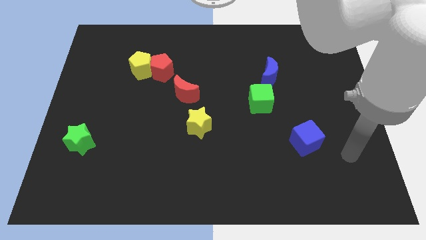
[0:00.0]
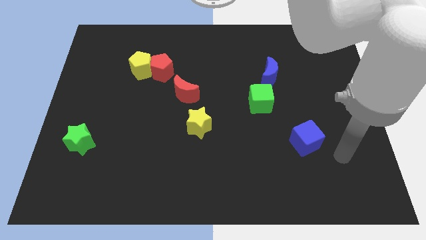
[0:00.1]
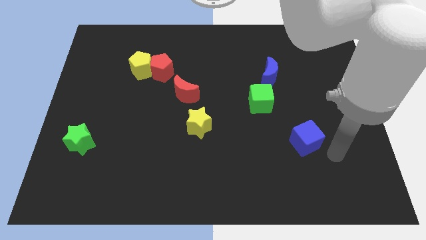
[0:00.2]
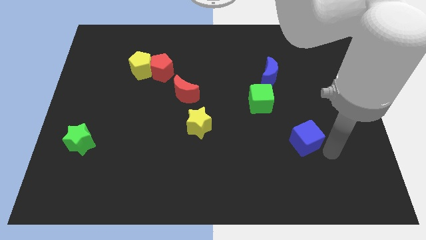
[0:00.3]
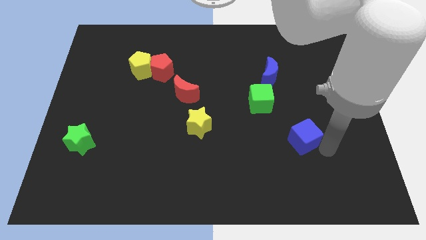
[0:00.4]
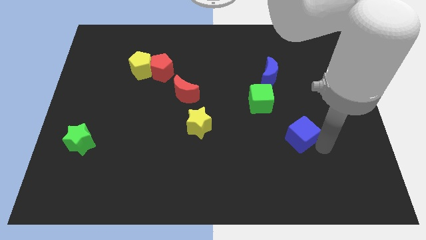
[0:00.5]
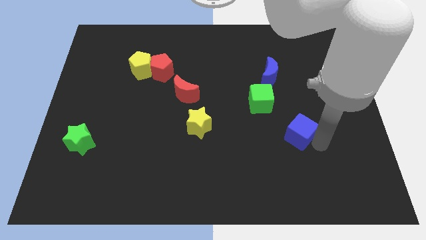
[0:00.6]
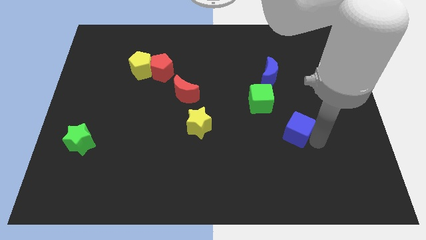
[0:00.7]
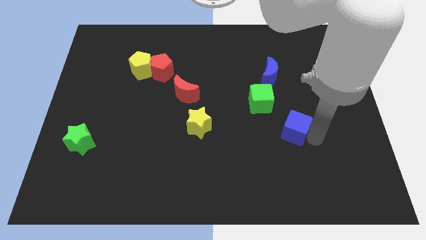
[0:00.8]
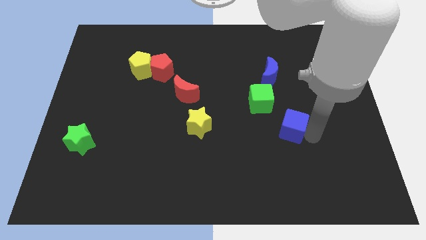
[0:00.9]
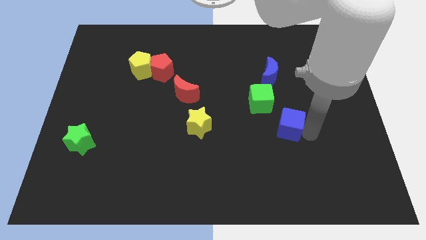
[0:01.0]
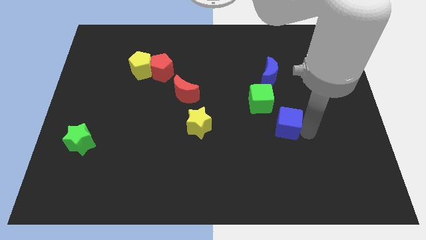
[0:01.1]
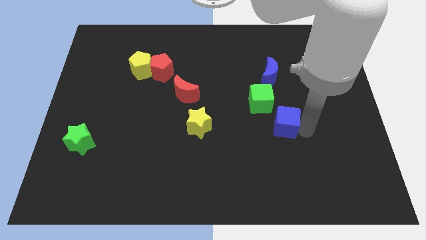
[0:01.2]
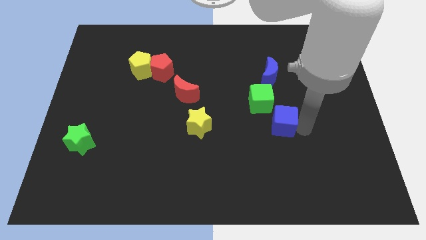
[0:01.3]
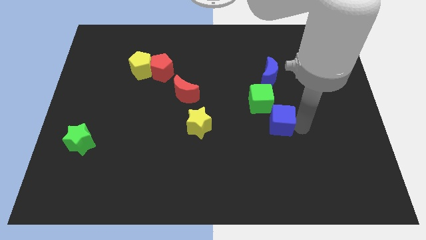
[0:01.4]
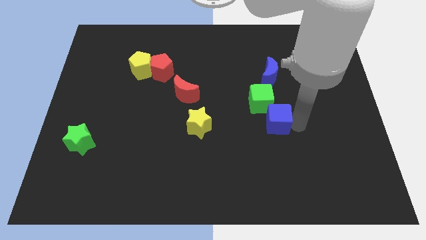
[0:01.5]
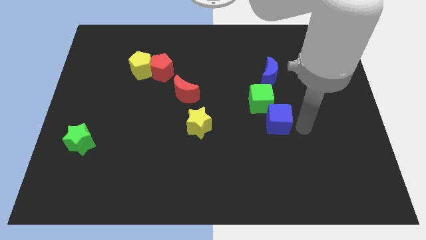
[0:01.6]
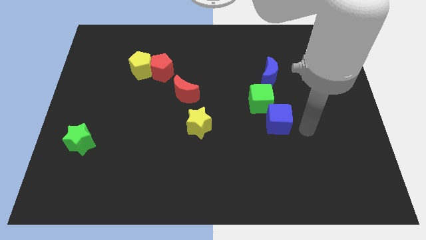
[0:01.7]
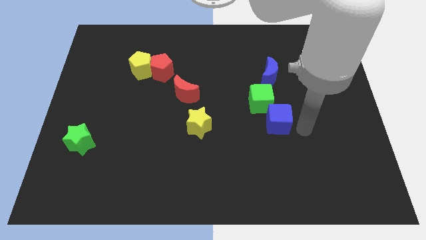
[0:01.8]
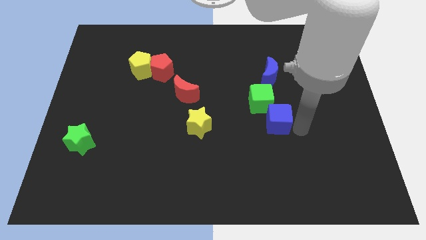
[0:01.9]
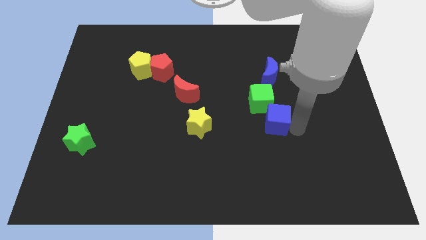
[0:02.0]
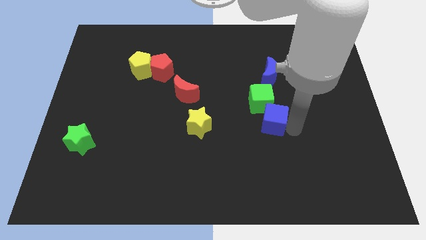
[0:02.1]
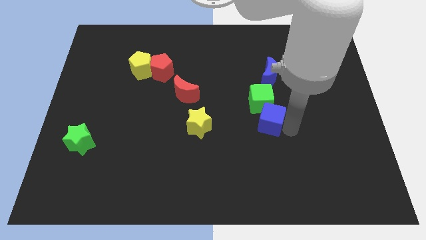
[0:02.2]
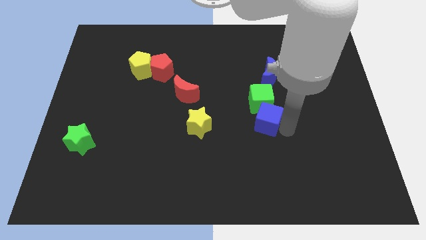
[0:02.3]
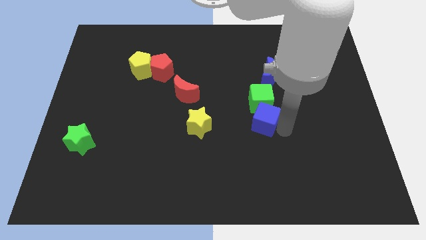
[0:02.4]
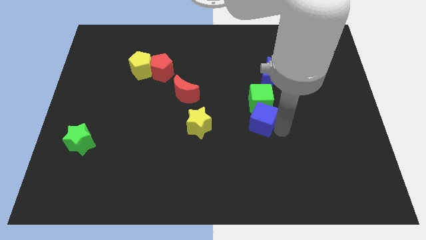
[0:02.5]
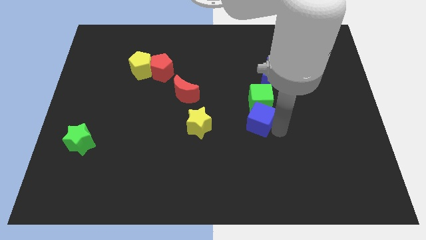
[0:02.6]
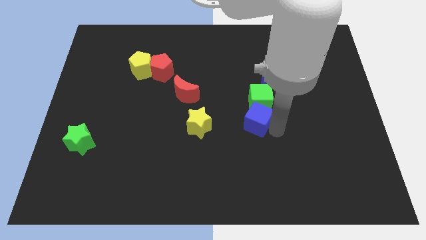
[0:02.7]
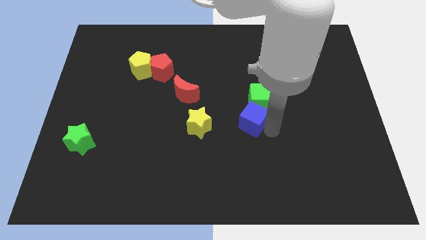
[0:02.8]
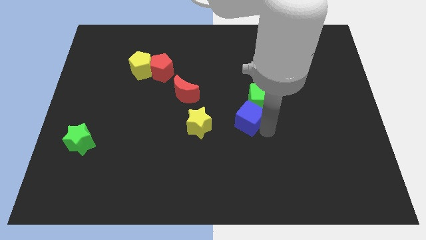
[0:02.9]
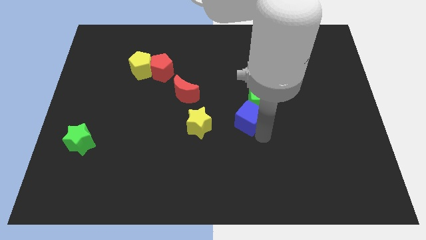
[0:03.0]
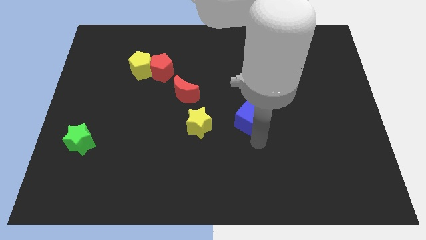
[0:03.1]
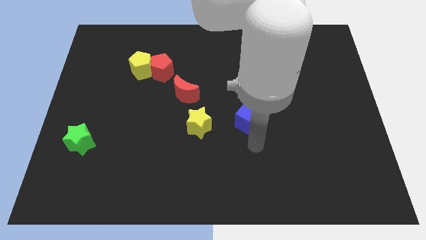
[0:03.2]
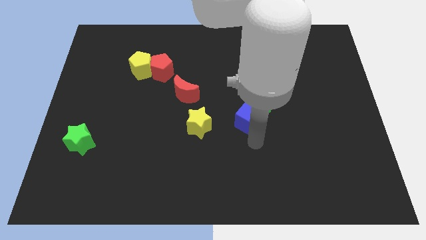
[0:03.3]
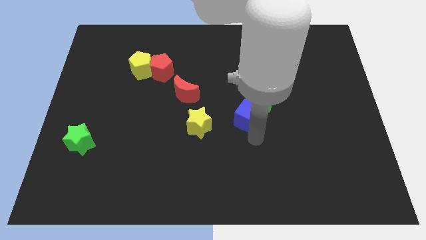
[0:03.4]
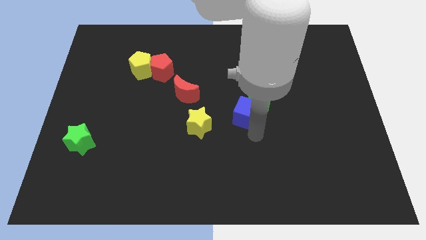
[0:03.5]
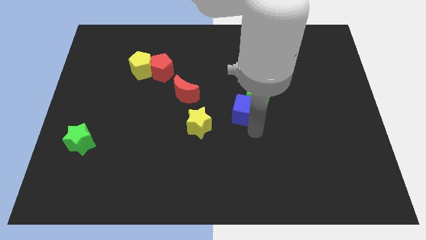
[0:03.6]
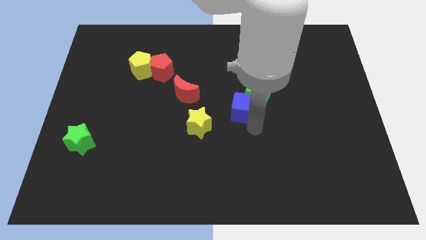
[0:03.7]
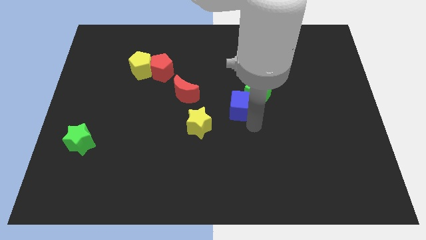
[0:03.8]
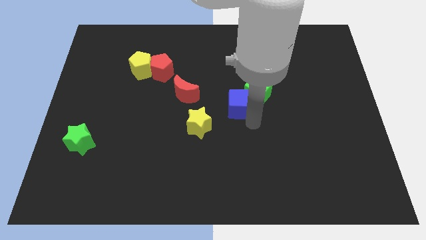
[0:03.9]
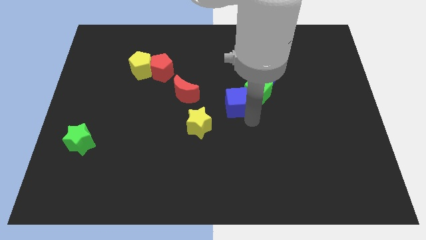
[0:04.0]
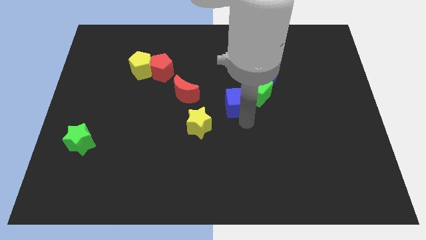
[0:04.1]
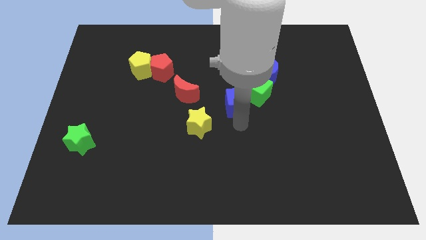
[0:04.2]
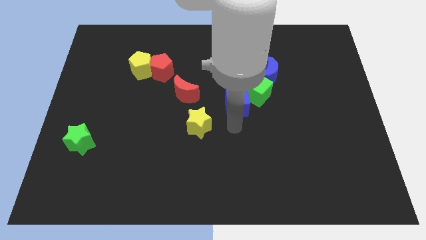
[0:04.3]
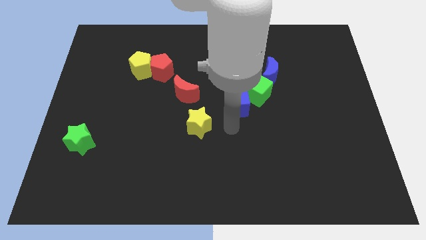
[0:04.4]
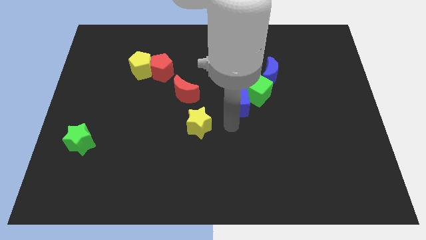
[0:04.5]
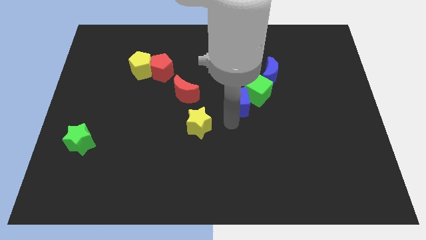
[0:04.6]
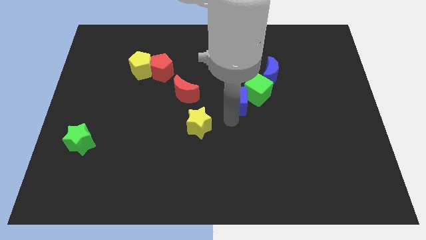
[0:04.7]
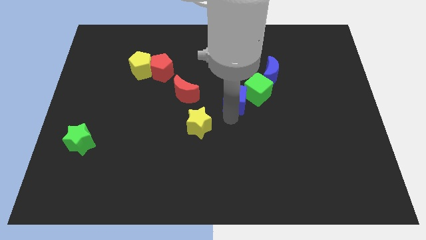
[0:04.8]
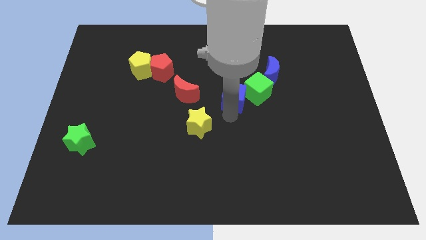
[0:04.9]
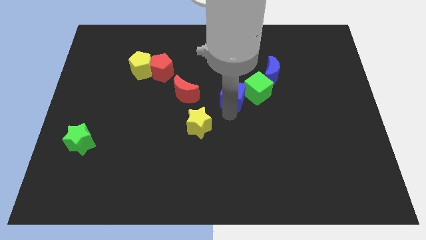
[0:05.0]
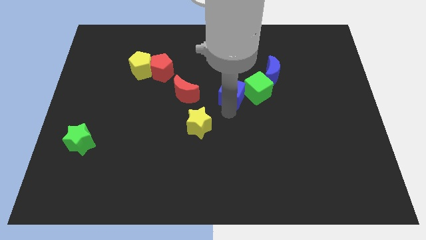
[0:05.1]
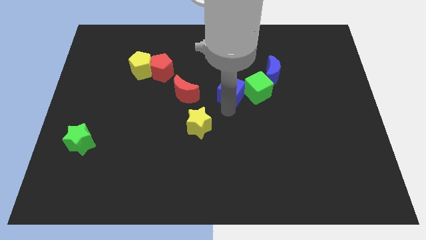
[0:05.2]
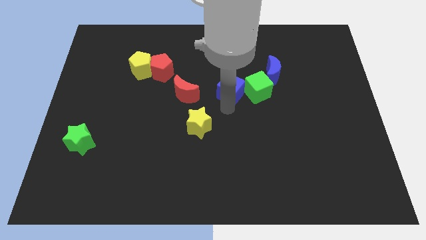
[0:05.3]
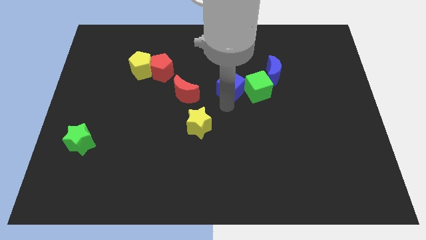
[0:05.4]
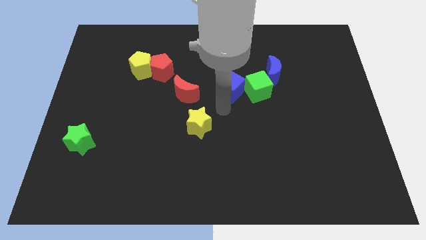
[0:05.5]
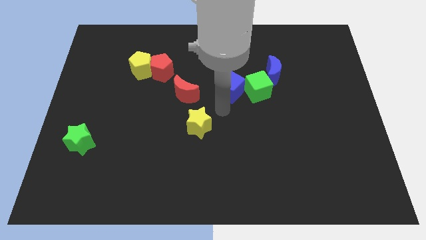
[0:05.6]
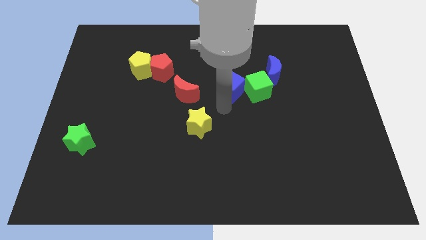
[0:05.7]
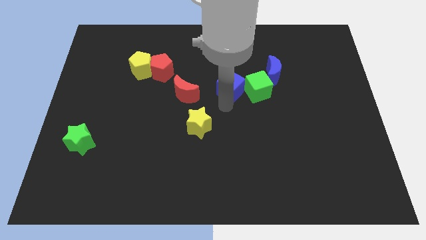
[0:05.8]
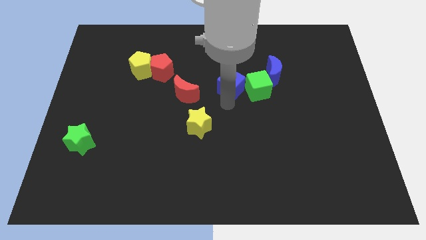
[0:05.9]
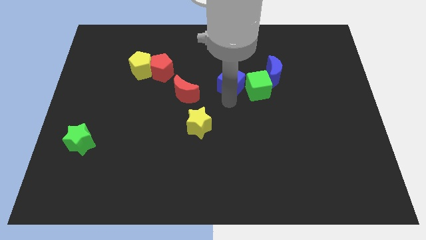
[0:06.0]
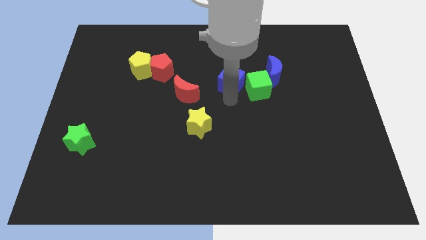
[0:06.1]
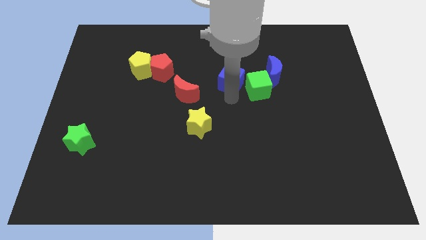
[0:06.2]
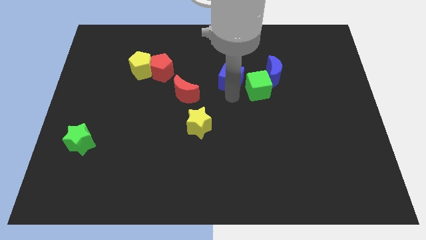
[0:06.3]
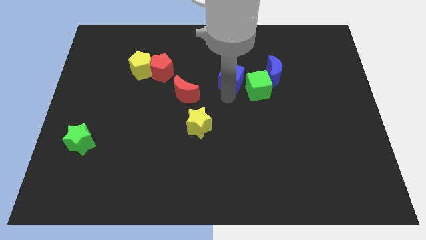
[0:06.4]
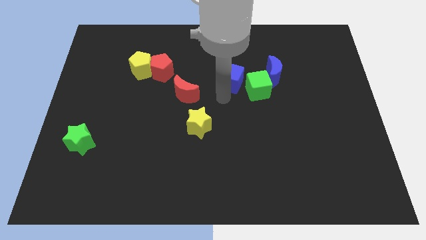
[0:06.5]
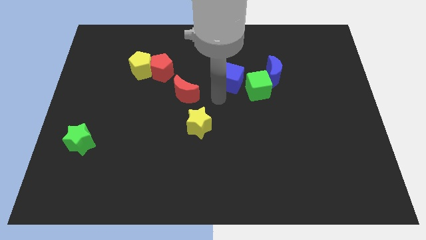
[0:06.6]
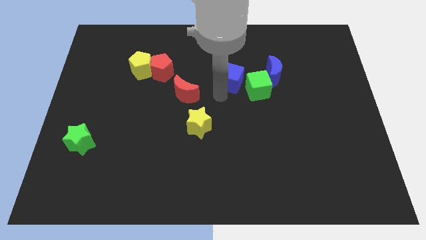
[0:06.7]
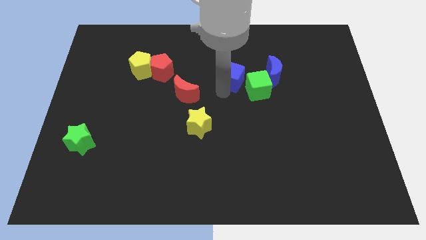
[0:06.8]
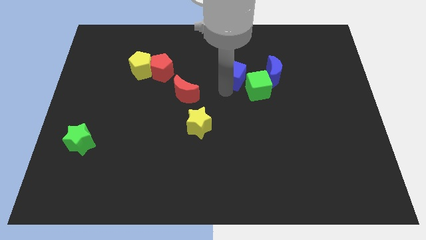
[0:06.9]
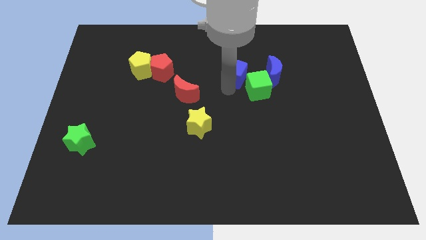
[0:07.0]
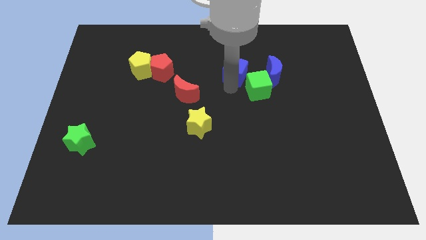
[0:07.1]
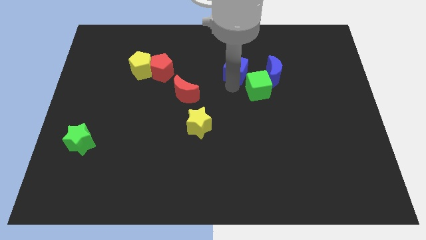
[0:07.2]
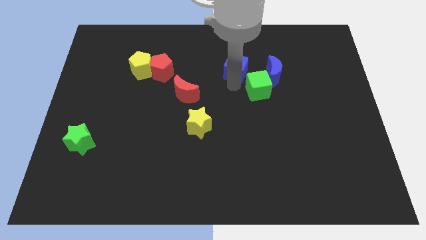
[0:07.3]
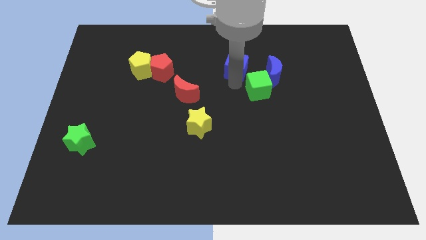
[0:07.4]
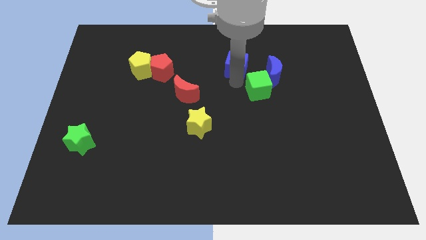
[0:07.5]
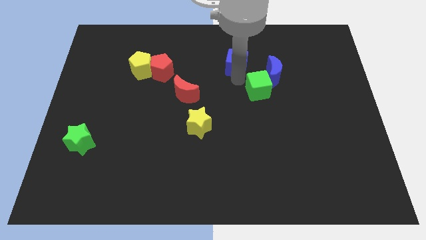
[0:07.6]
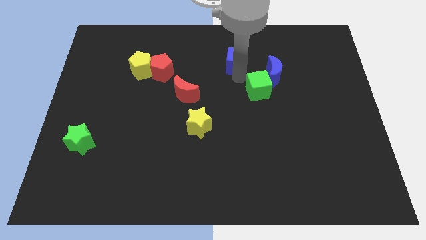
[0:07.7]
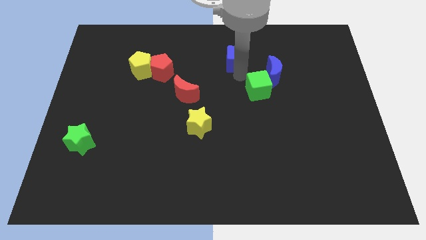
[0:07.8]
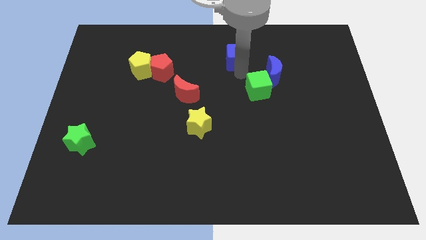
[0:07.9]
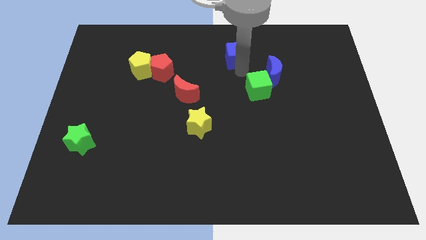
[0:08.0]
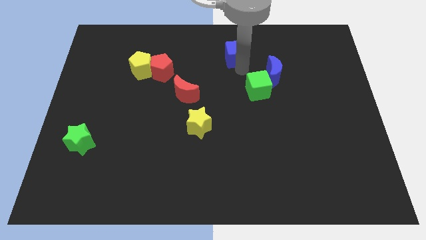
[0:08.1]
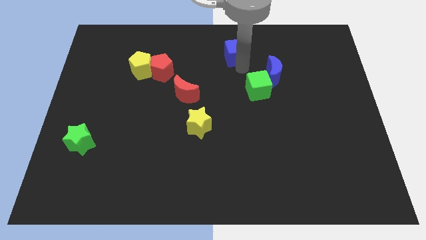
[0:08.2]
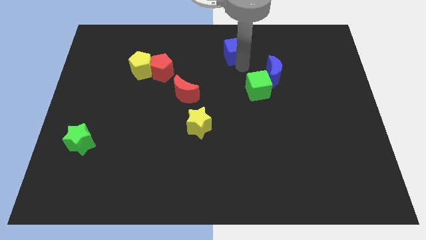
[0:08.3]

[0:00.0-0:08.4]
slide the blue cube to the towards your base
